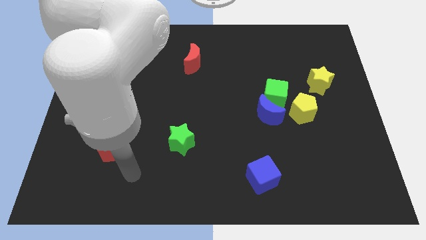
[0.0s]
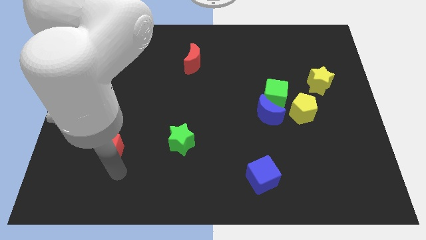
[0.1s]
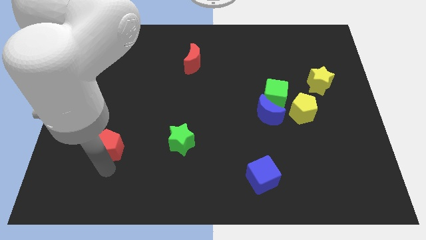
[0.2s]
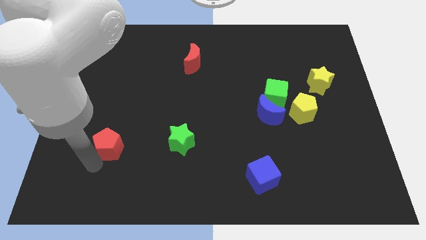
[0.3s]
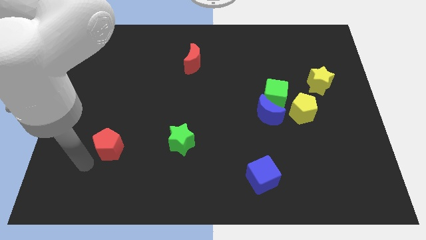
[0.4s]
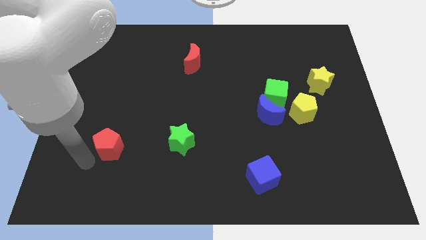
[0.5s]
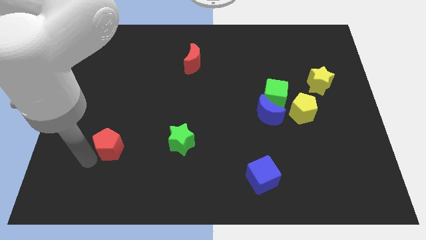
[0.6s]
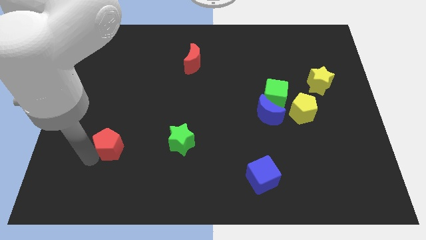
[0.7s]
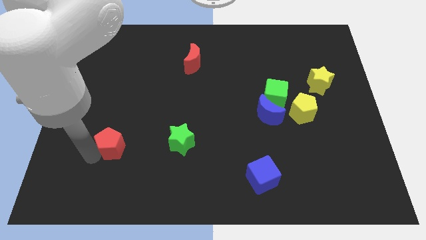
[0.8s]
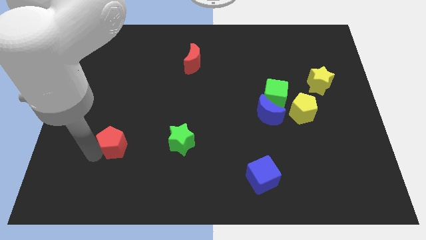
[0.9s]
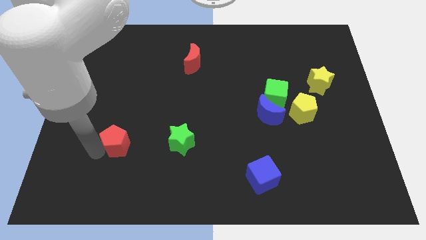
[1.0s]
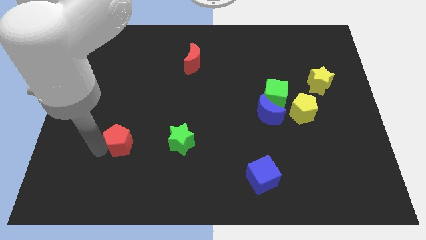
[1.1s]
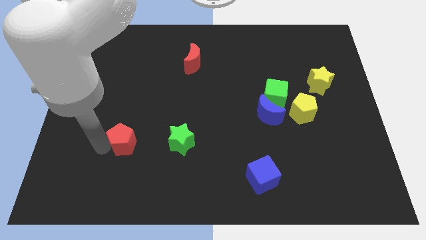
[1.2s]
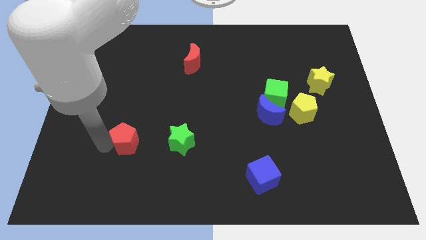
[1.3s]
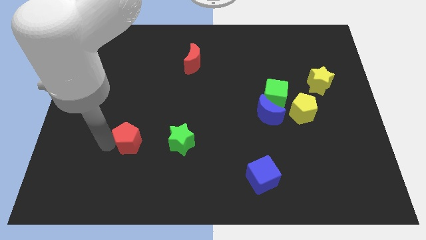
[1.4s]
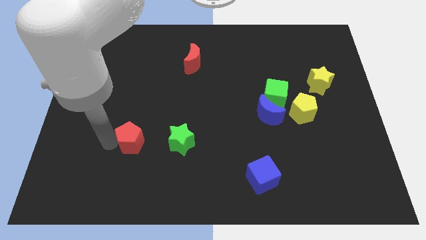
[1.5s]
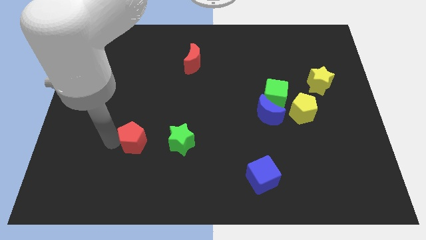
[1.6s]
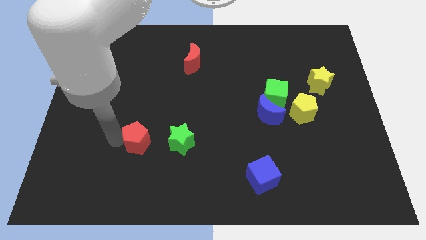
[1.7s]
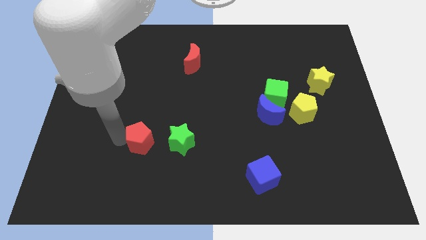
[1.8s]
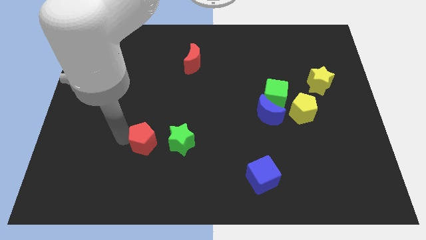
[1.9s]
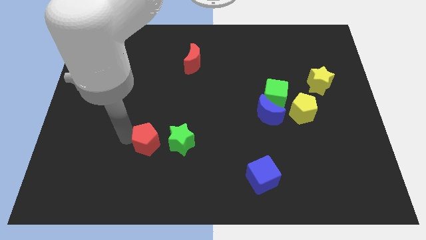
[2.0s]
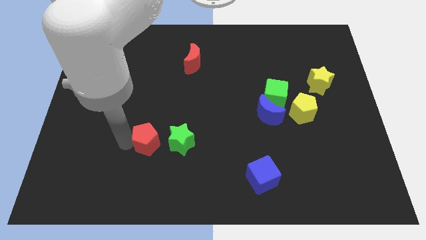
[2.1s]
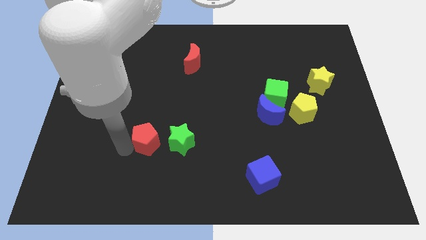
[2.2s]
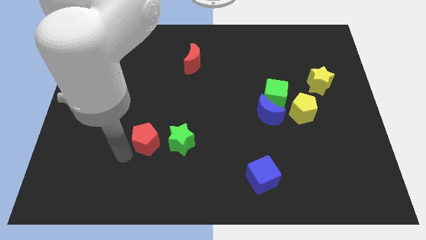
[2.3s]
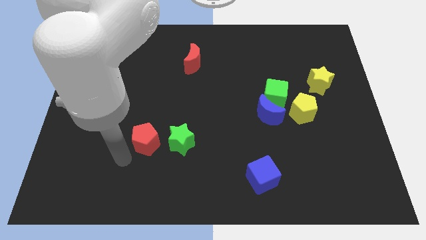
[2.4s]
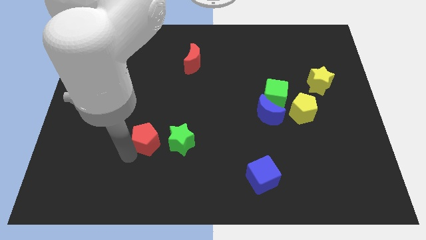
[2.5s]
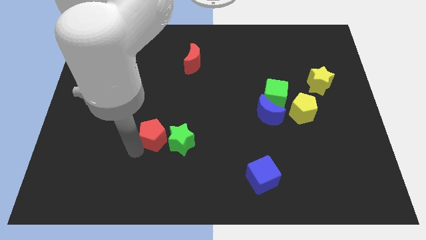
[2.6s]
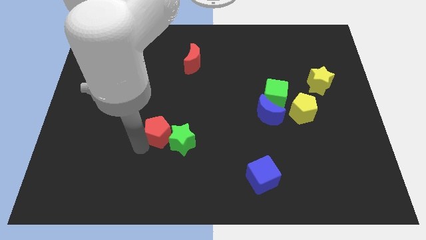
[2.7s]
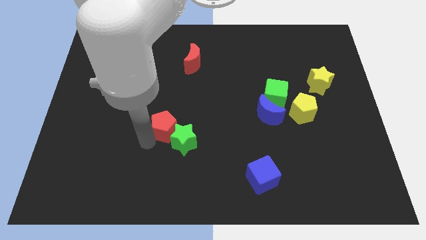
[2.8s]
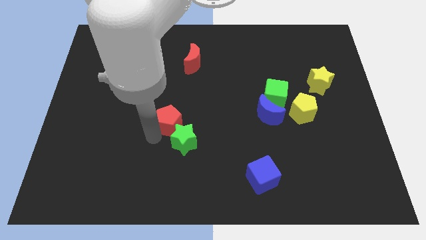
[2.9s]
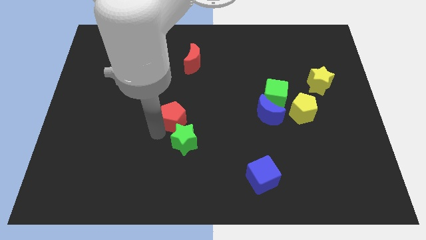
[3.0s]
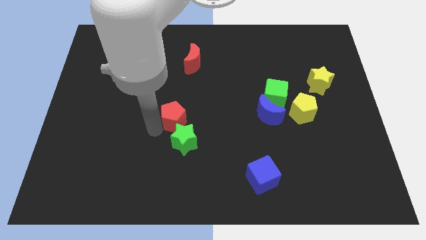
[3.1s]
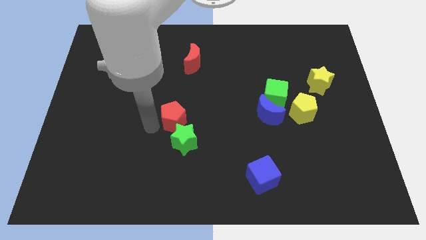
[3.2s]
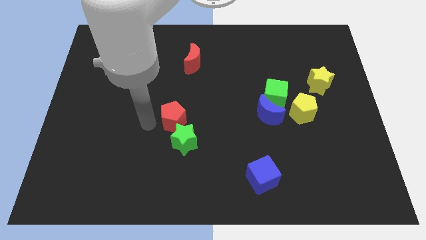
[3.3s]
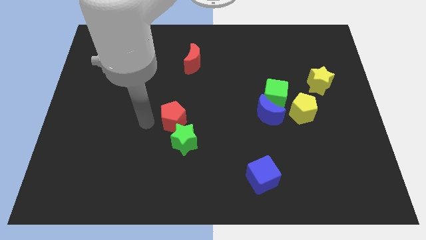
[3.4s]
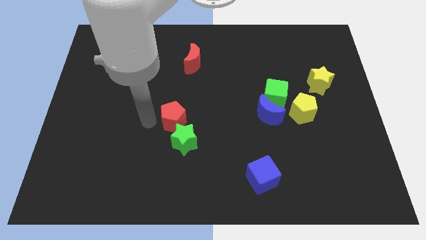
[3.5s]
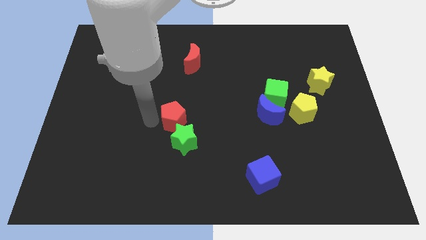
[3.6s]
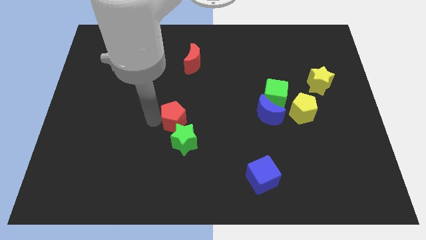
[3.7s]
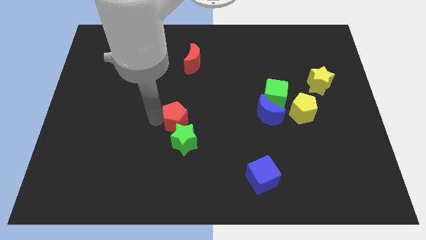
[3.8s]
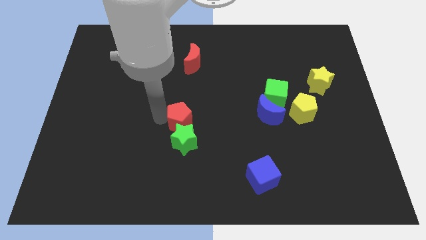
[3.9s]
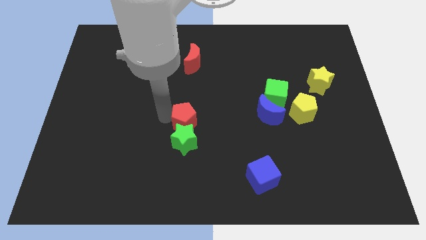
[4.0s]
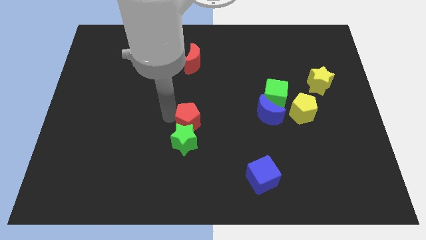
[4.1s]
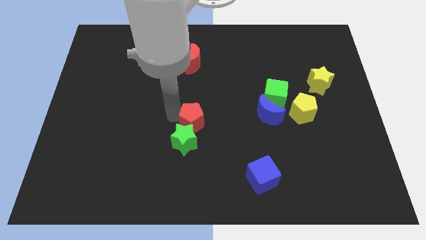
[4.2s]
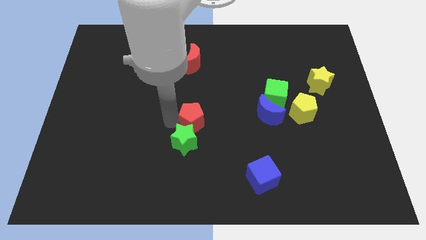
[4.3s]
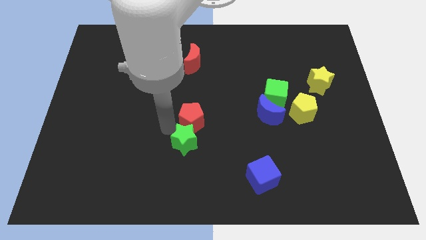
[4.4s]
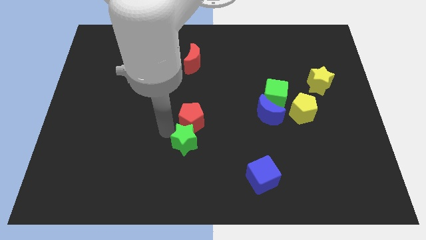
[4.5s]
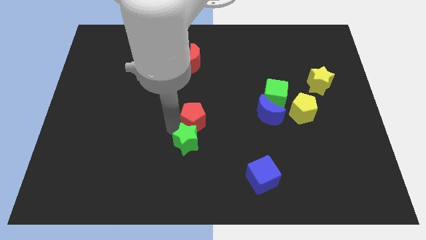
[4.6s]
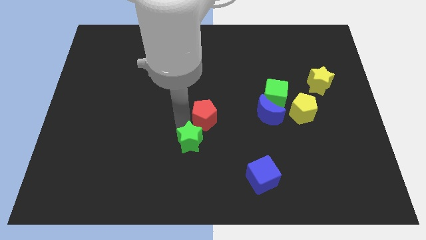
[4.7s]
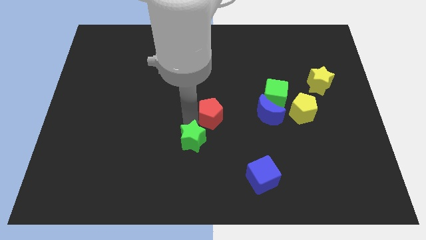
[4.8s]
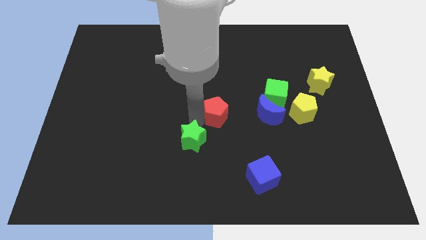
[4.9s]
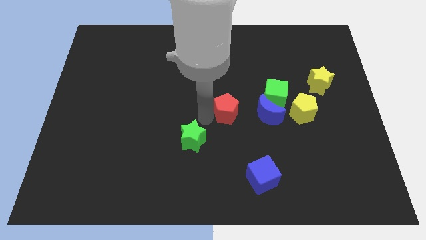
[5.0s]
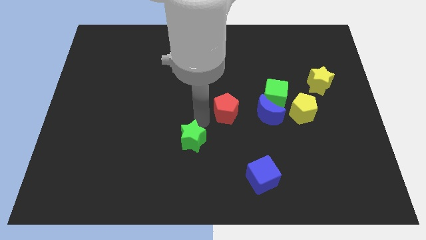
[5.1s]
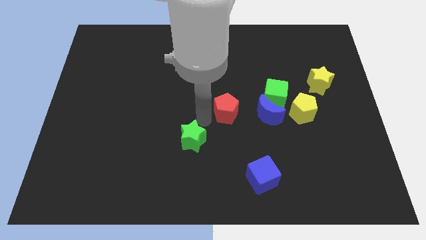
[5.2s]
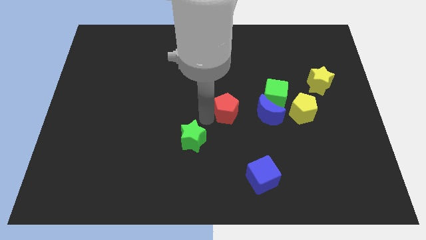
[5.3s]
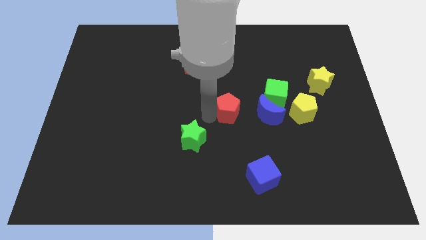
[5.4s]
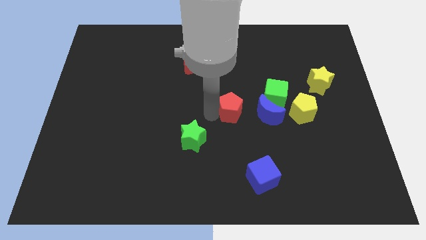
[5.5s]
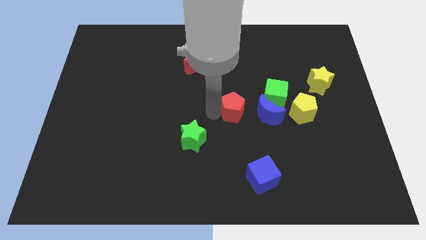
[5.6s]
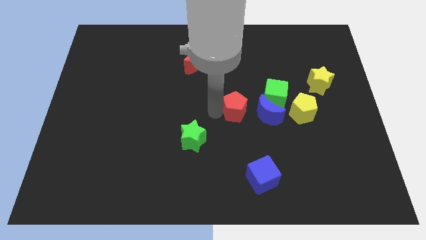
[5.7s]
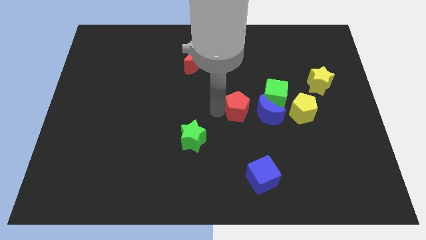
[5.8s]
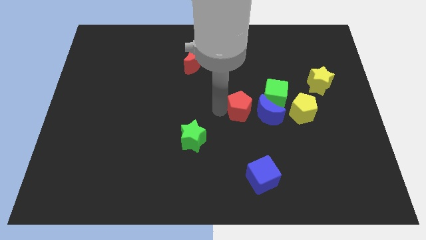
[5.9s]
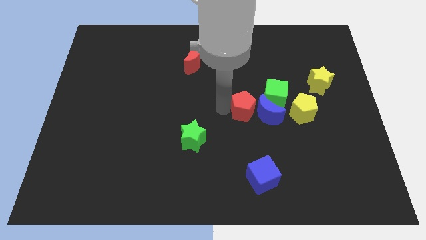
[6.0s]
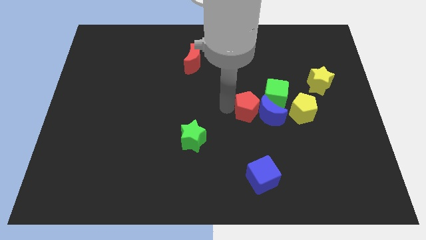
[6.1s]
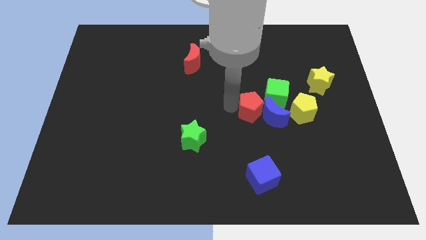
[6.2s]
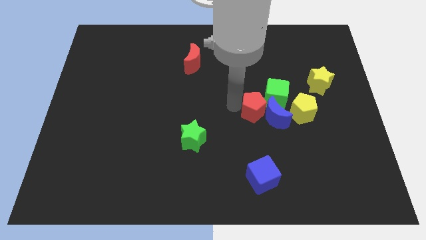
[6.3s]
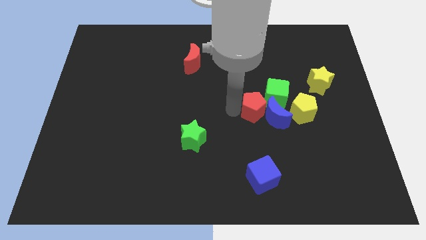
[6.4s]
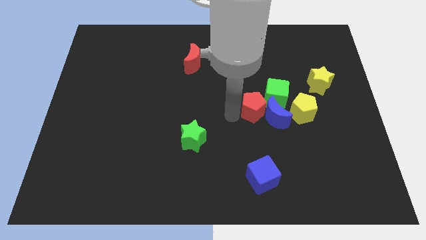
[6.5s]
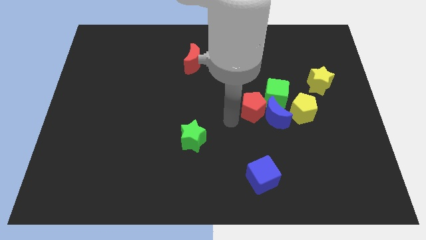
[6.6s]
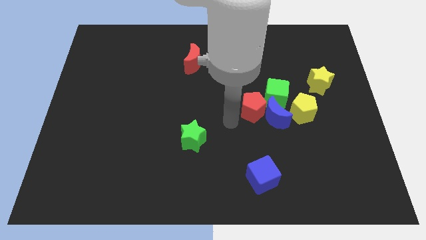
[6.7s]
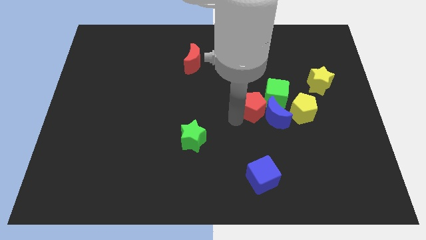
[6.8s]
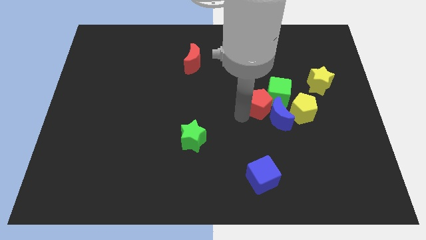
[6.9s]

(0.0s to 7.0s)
put the red pentagon towards the green cube

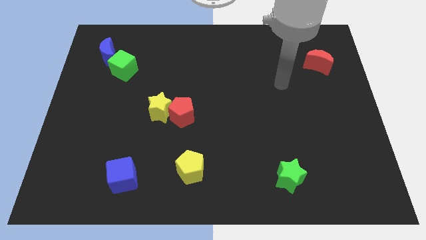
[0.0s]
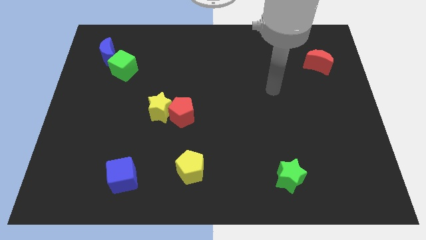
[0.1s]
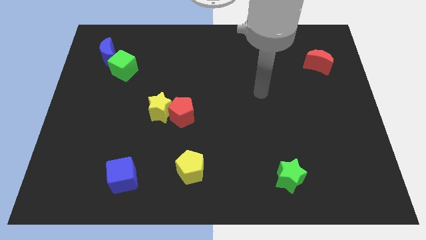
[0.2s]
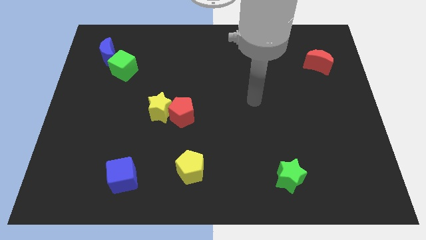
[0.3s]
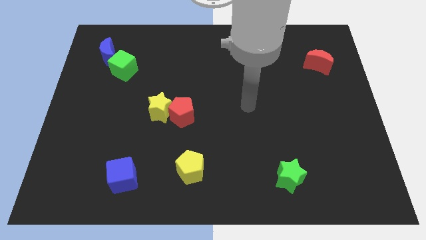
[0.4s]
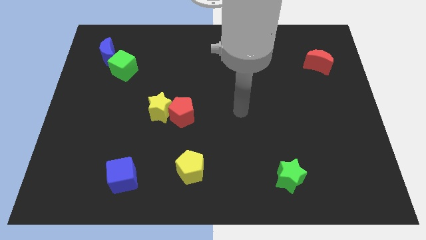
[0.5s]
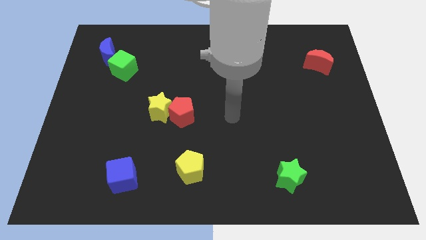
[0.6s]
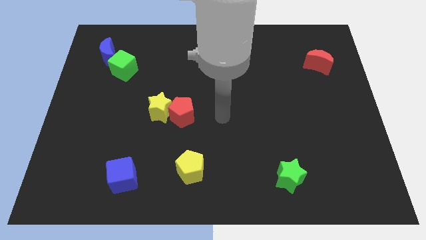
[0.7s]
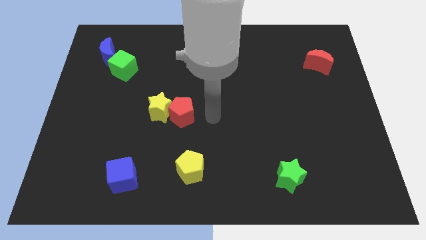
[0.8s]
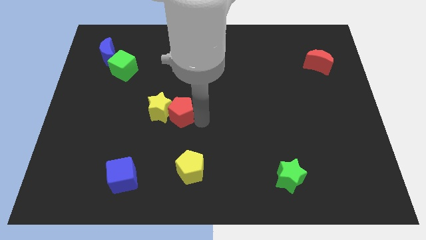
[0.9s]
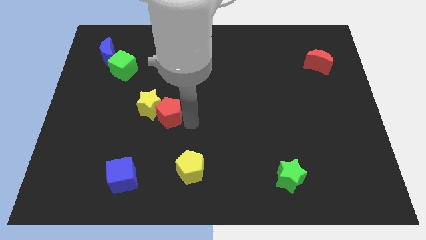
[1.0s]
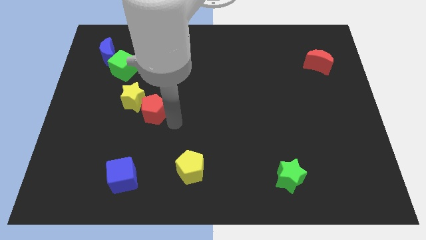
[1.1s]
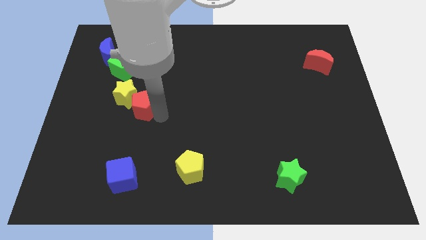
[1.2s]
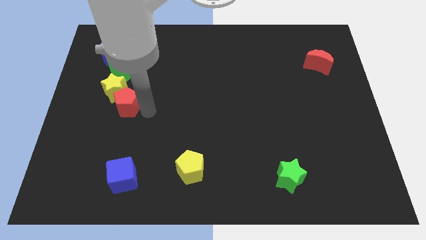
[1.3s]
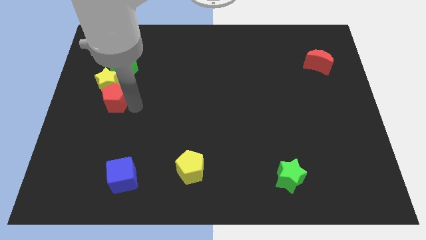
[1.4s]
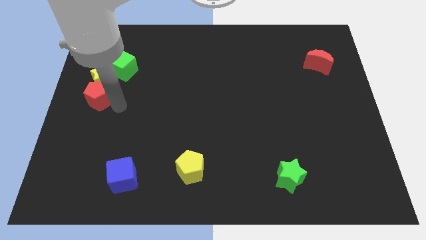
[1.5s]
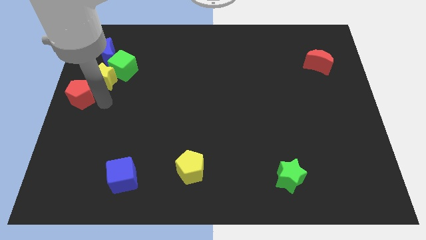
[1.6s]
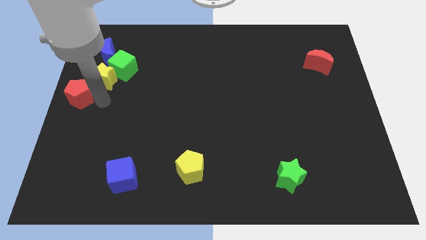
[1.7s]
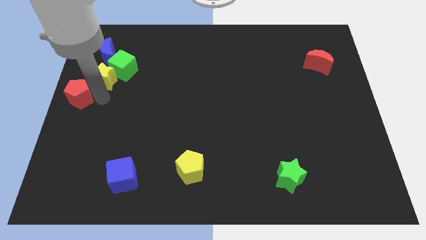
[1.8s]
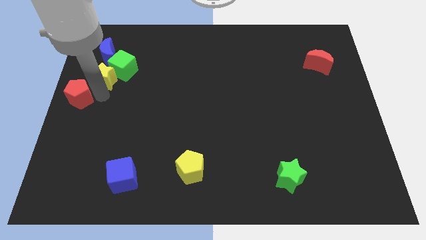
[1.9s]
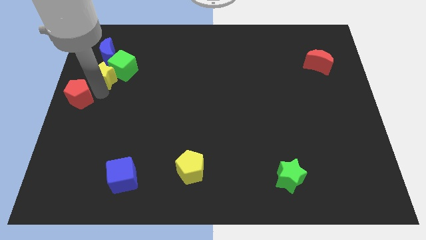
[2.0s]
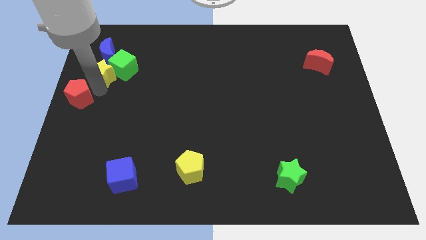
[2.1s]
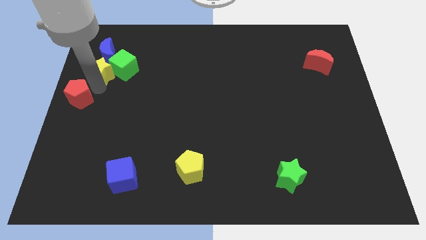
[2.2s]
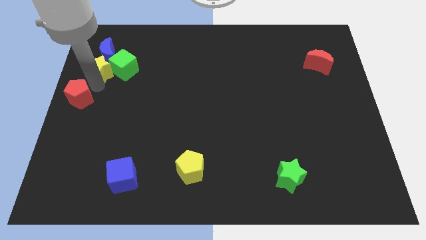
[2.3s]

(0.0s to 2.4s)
move the yellow star close to the blue moon
